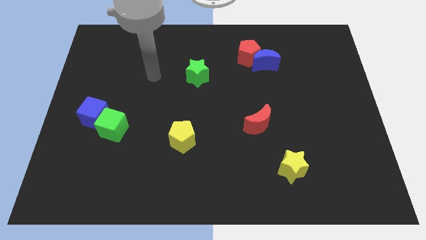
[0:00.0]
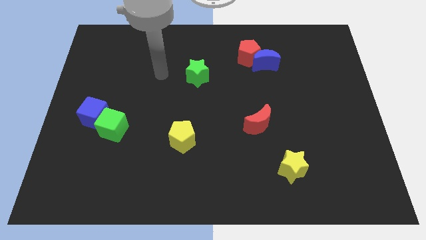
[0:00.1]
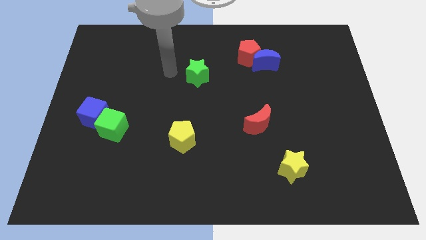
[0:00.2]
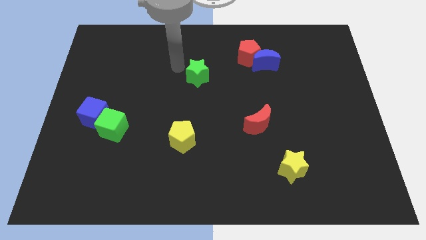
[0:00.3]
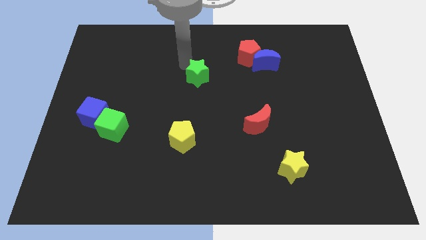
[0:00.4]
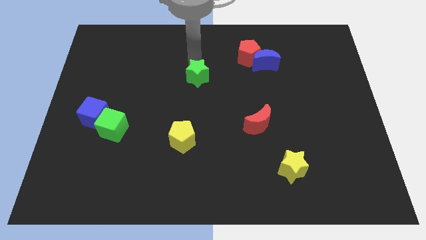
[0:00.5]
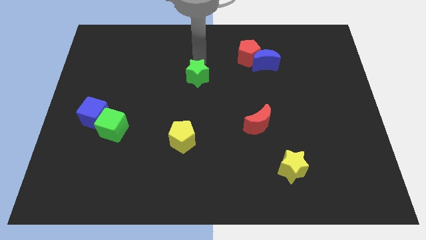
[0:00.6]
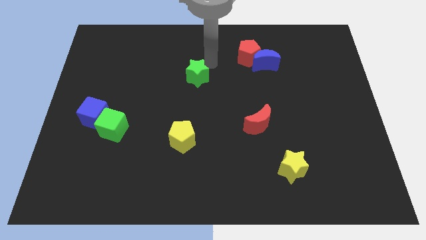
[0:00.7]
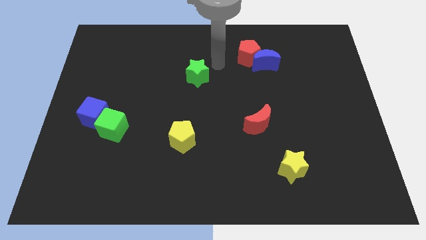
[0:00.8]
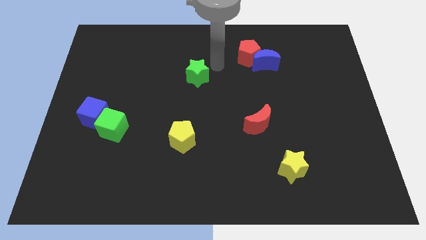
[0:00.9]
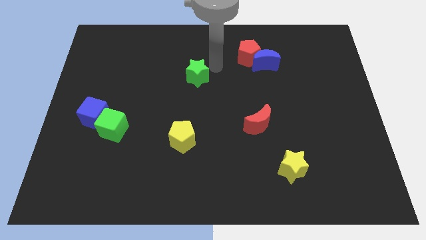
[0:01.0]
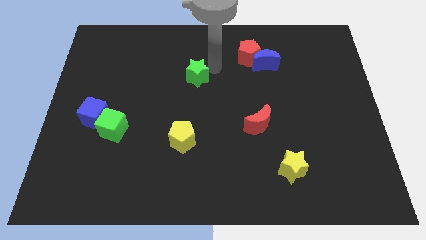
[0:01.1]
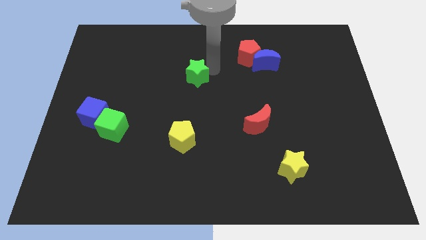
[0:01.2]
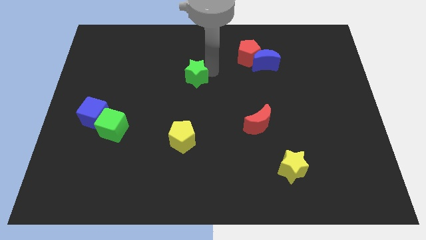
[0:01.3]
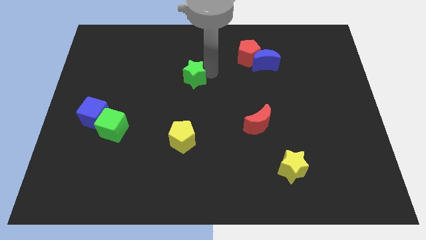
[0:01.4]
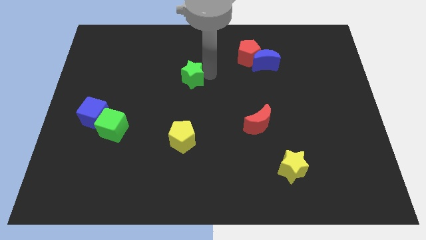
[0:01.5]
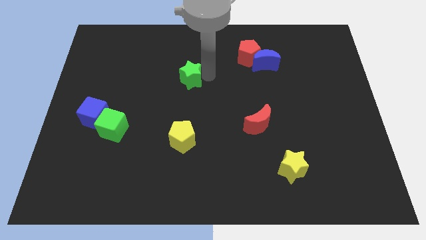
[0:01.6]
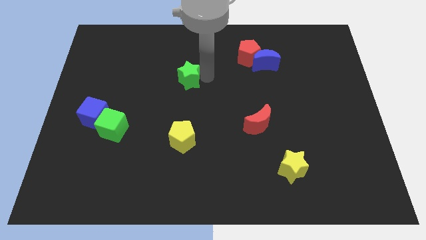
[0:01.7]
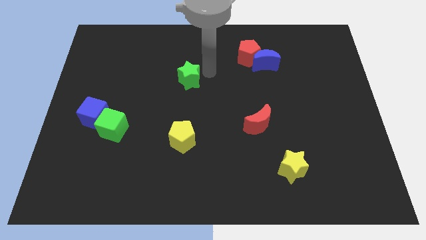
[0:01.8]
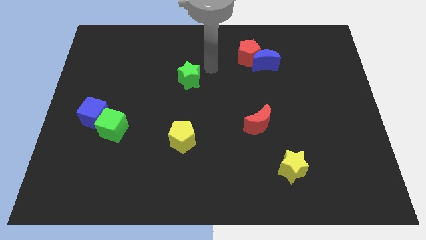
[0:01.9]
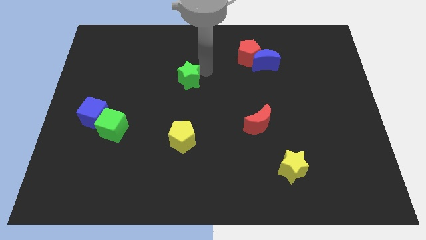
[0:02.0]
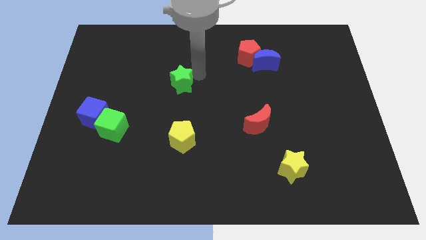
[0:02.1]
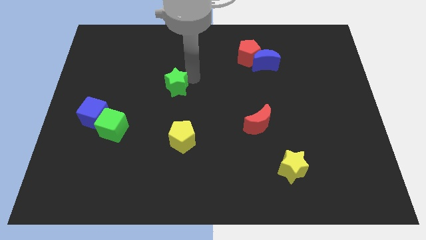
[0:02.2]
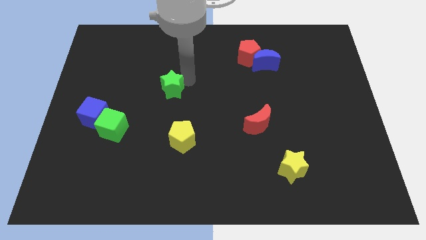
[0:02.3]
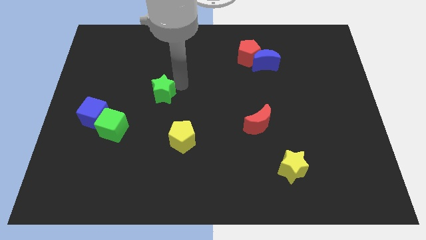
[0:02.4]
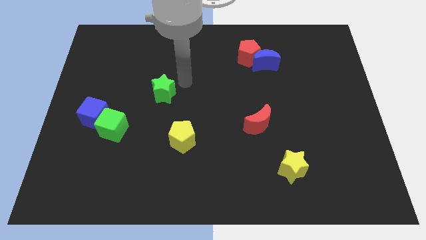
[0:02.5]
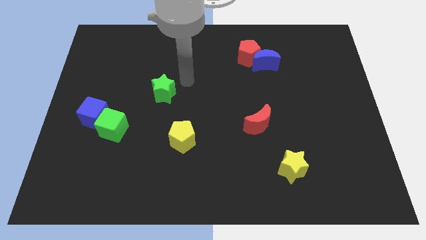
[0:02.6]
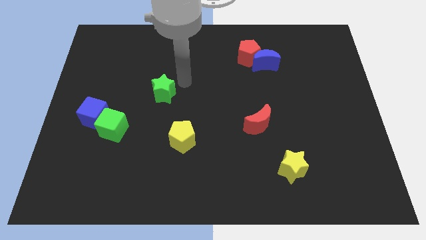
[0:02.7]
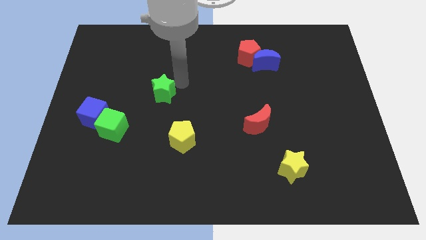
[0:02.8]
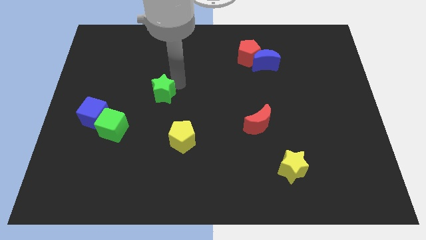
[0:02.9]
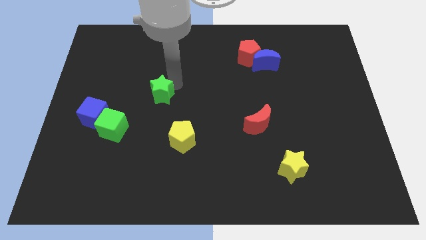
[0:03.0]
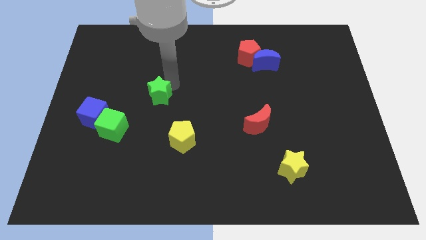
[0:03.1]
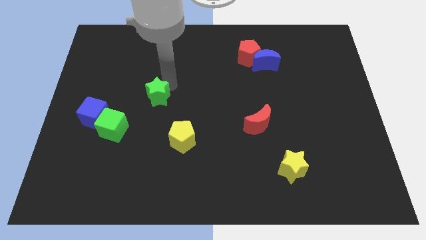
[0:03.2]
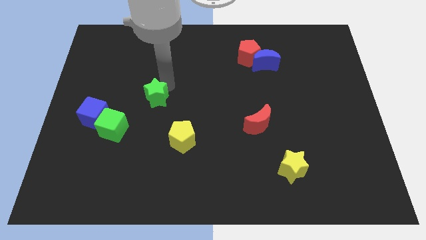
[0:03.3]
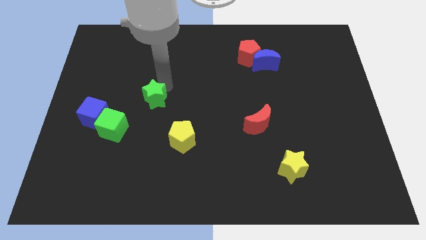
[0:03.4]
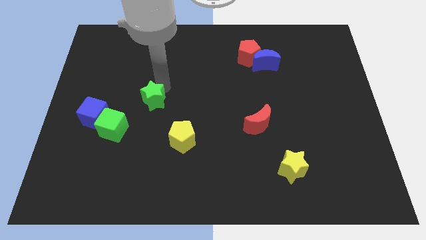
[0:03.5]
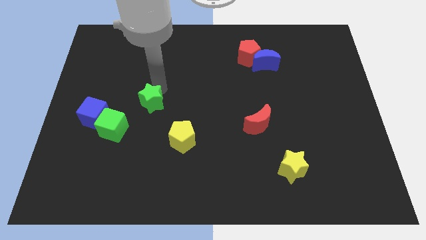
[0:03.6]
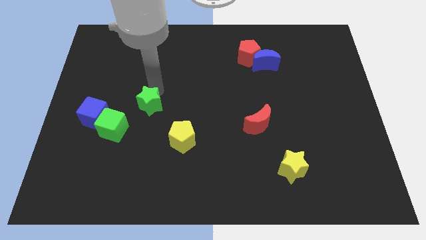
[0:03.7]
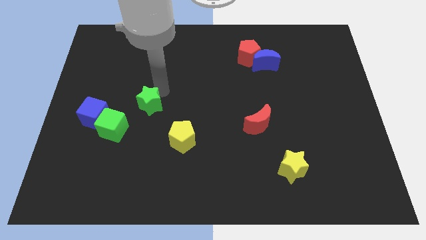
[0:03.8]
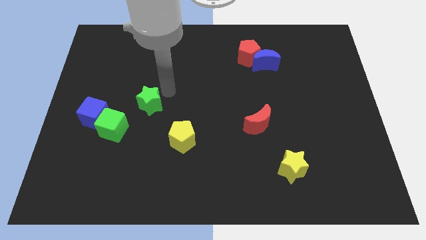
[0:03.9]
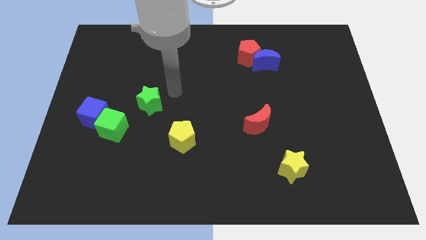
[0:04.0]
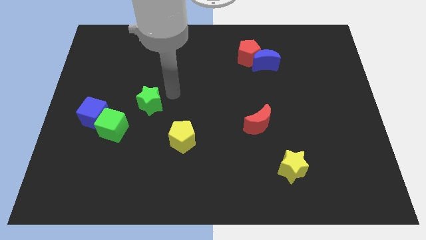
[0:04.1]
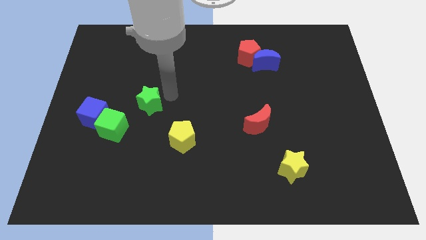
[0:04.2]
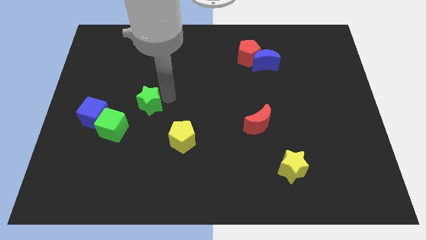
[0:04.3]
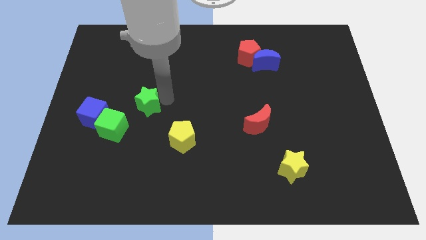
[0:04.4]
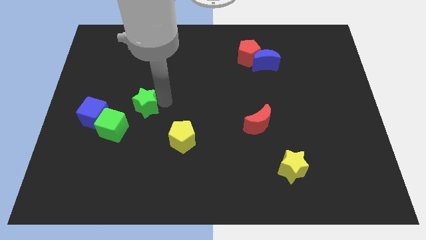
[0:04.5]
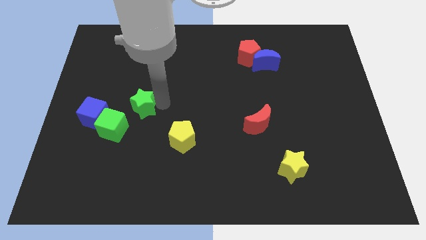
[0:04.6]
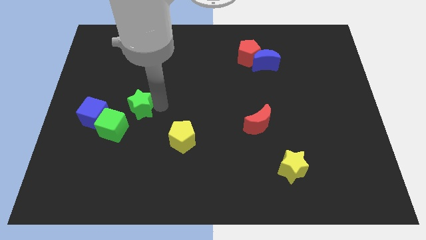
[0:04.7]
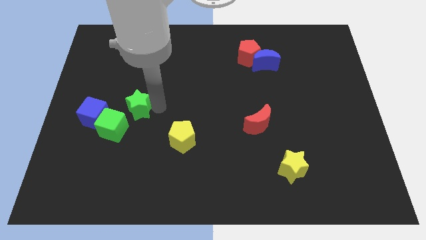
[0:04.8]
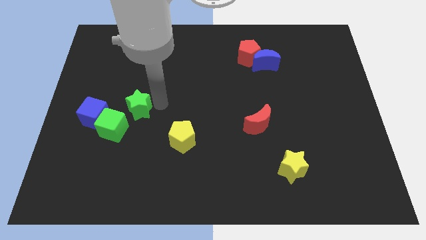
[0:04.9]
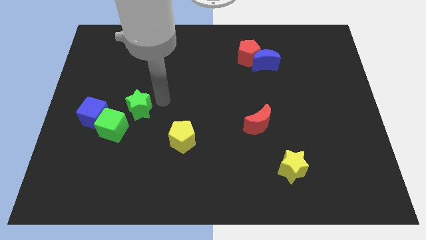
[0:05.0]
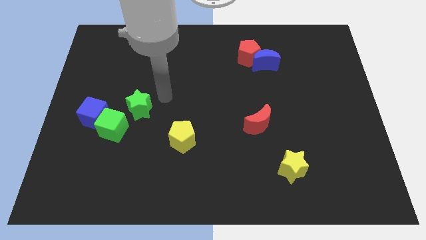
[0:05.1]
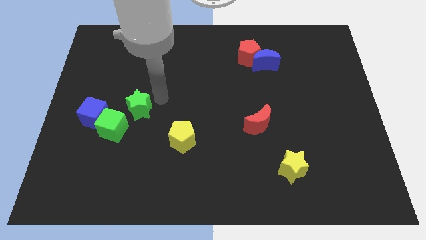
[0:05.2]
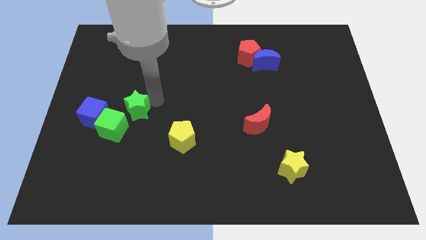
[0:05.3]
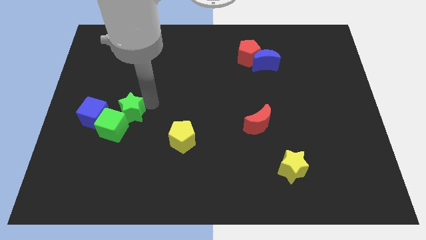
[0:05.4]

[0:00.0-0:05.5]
push the green star to the green cube
